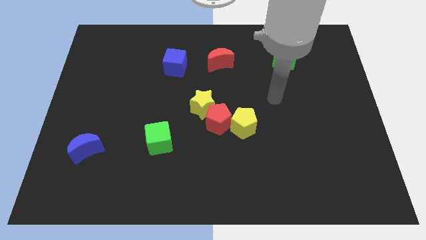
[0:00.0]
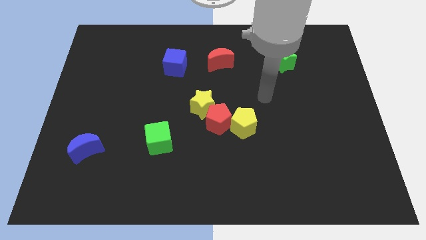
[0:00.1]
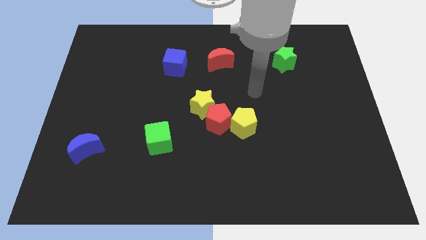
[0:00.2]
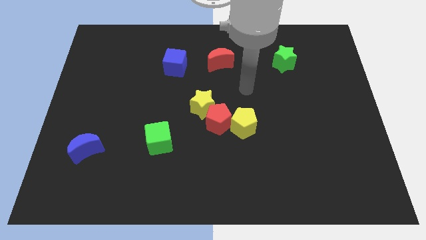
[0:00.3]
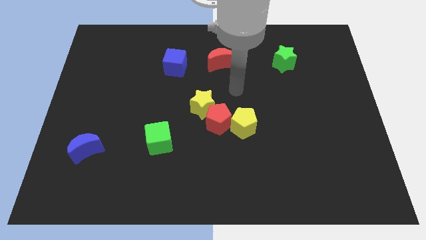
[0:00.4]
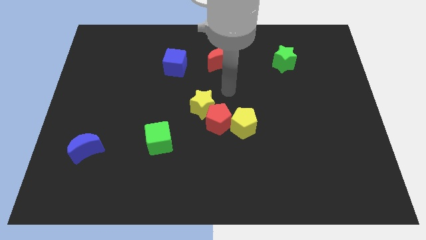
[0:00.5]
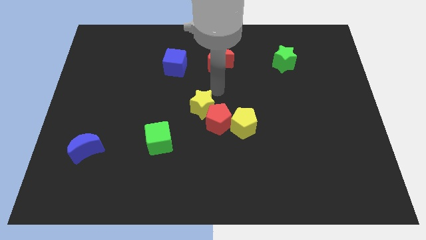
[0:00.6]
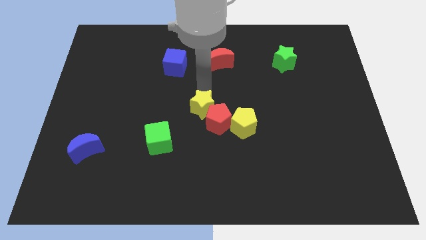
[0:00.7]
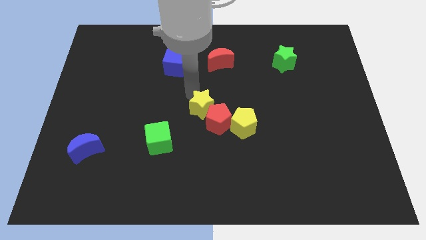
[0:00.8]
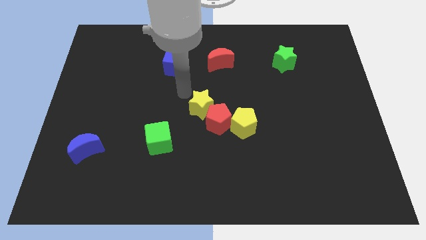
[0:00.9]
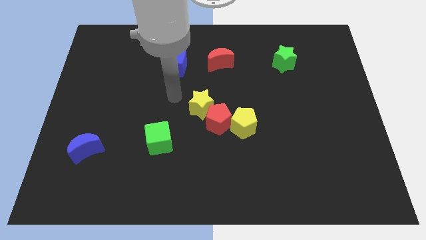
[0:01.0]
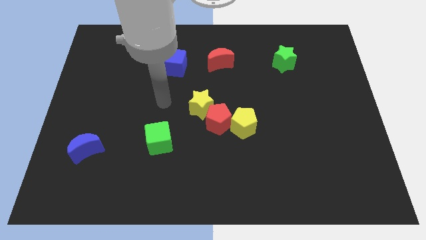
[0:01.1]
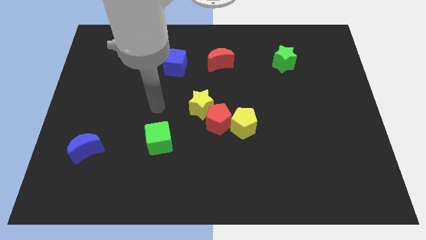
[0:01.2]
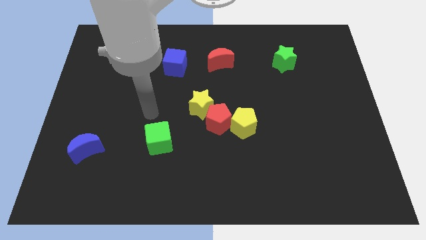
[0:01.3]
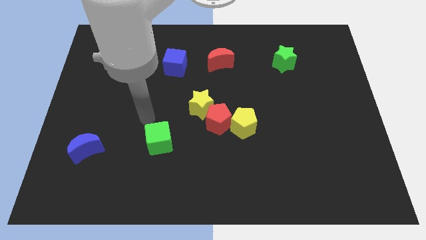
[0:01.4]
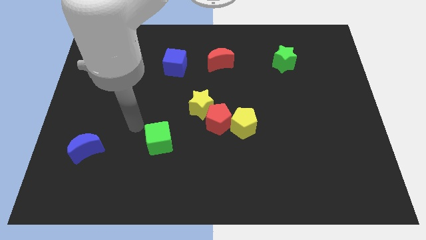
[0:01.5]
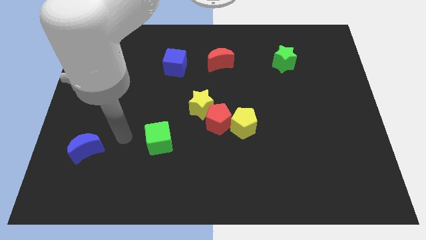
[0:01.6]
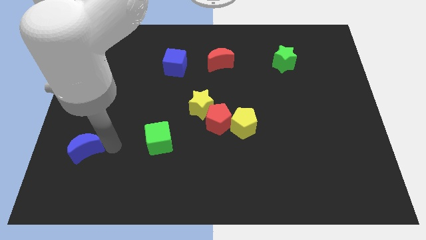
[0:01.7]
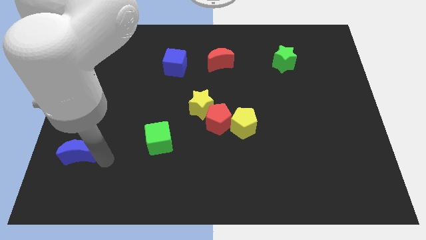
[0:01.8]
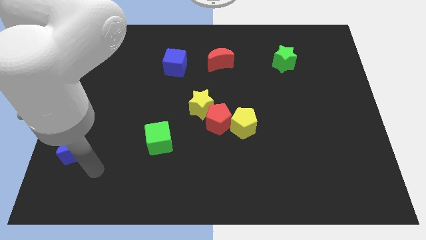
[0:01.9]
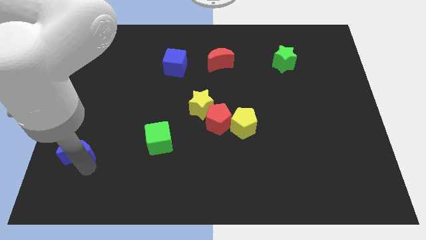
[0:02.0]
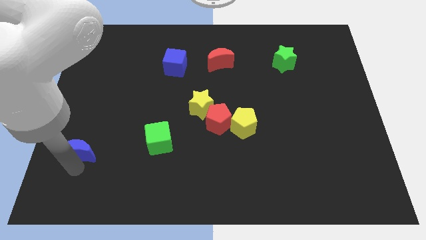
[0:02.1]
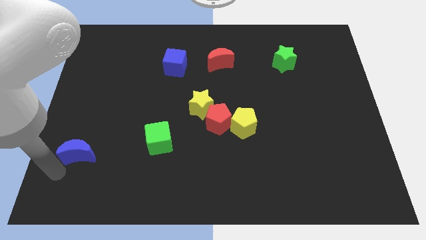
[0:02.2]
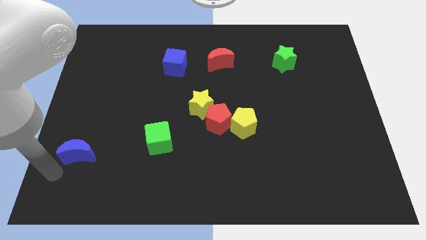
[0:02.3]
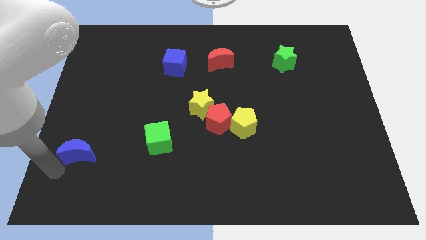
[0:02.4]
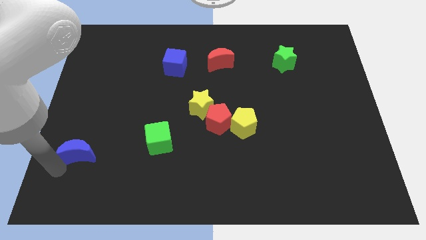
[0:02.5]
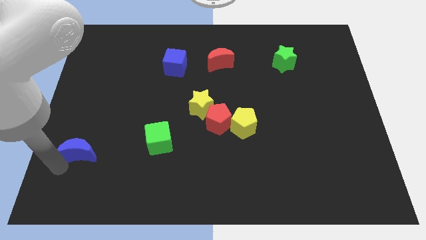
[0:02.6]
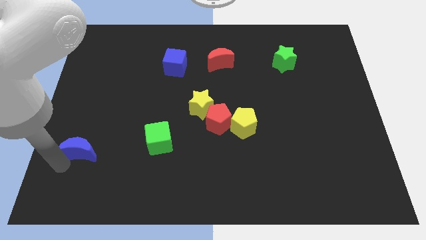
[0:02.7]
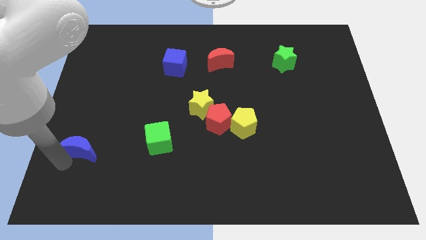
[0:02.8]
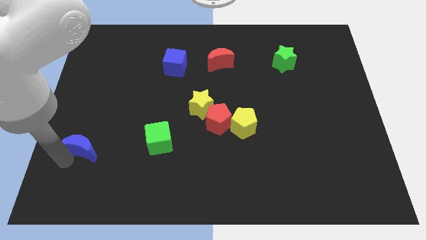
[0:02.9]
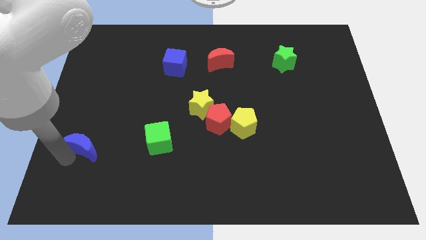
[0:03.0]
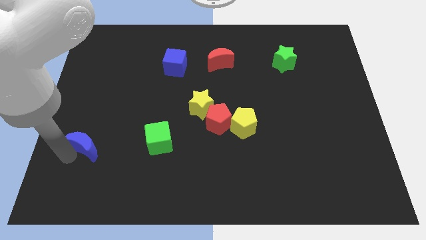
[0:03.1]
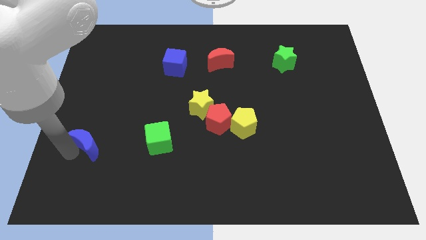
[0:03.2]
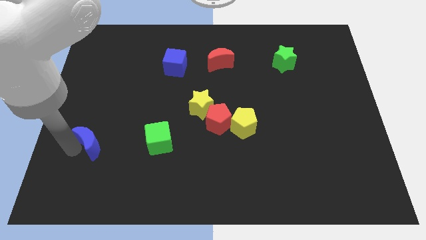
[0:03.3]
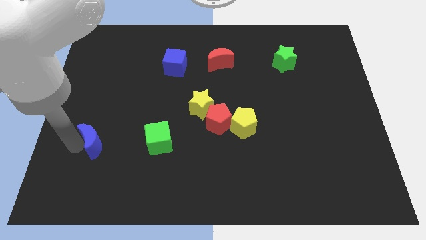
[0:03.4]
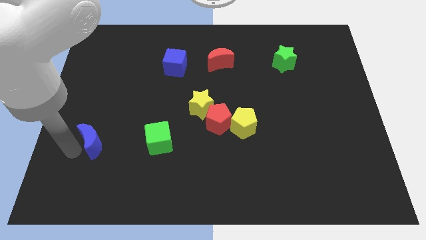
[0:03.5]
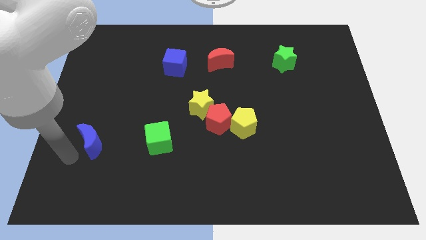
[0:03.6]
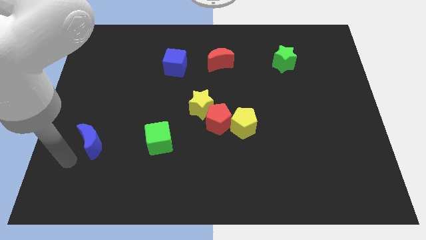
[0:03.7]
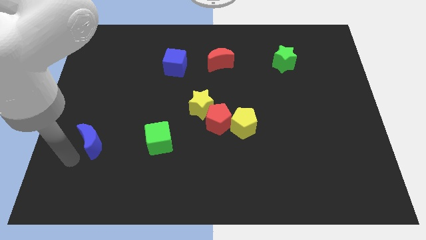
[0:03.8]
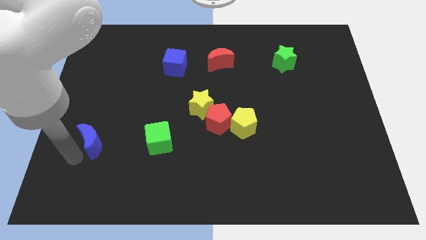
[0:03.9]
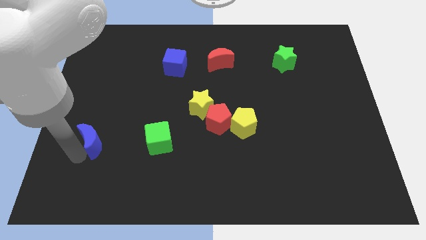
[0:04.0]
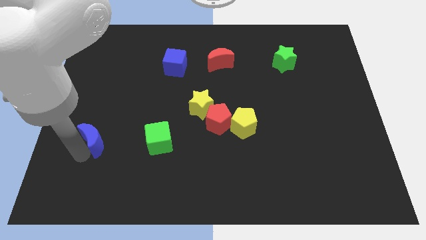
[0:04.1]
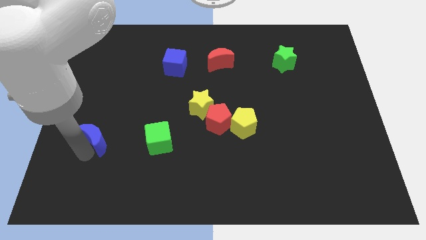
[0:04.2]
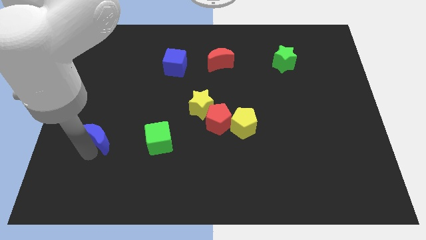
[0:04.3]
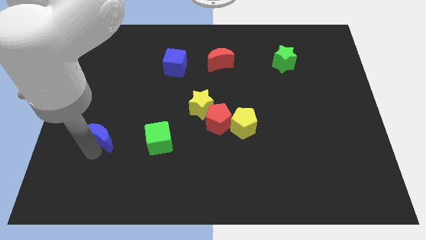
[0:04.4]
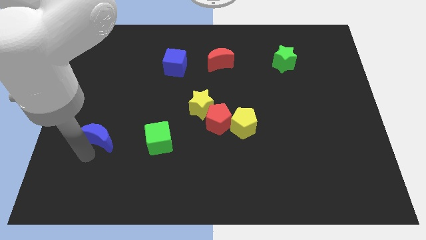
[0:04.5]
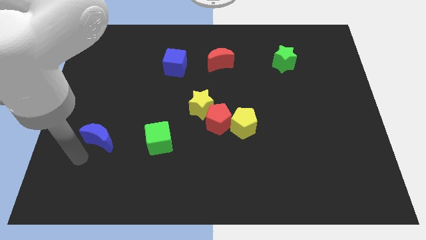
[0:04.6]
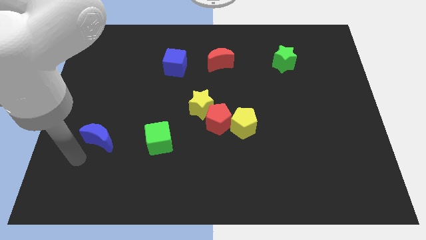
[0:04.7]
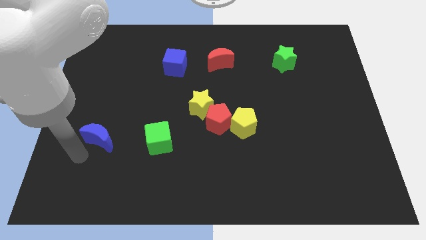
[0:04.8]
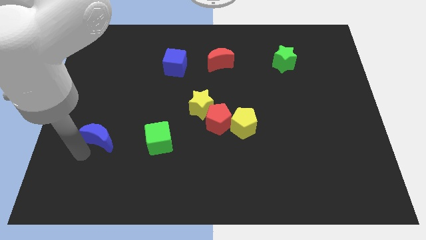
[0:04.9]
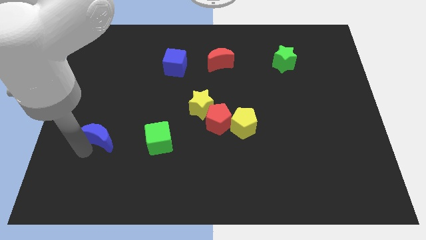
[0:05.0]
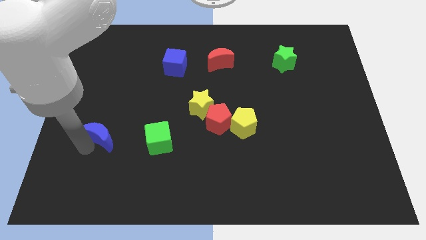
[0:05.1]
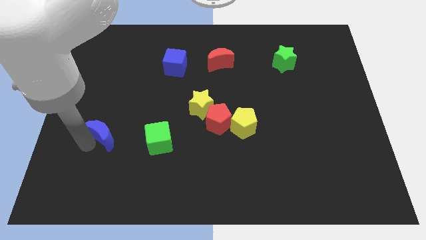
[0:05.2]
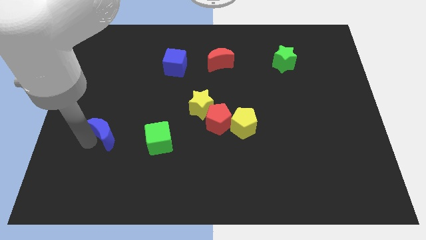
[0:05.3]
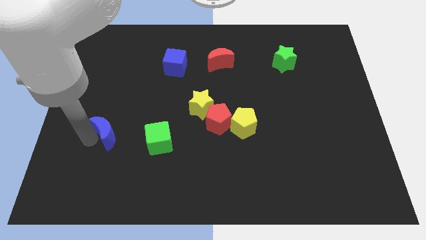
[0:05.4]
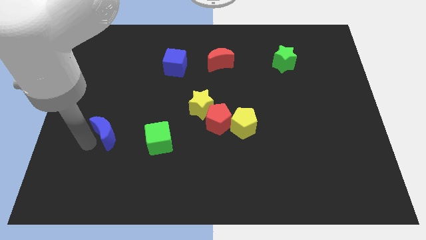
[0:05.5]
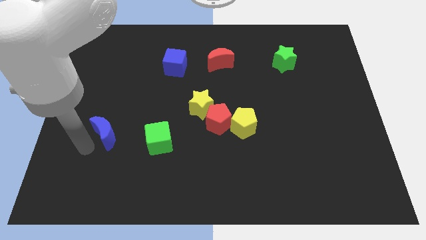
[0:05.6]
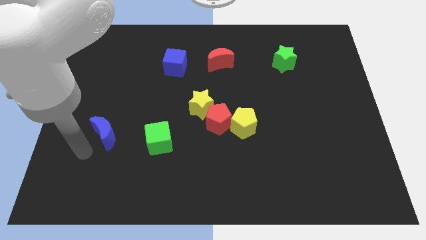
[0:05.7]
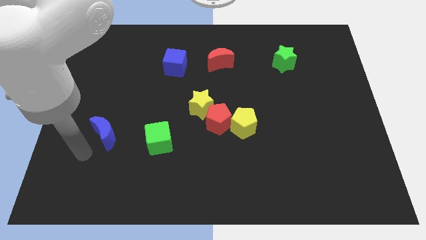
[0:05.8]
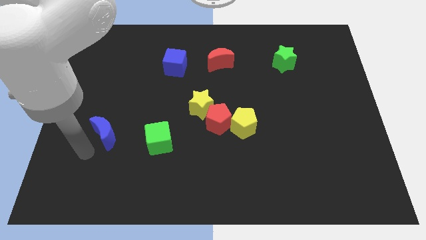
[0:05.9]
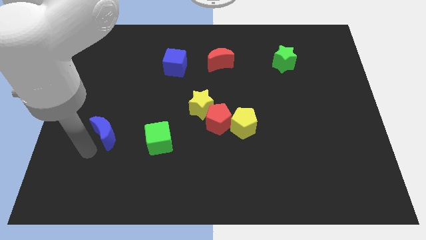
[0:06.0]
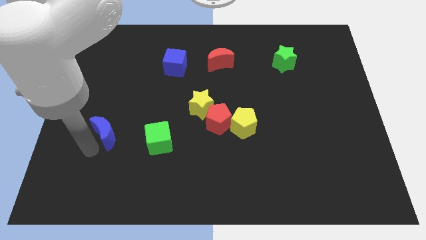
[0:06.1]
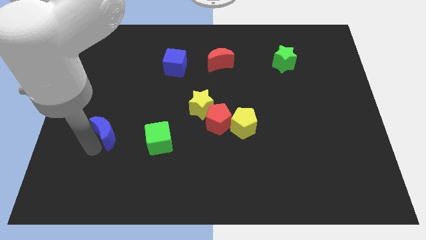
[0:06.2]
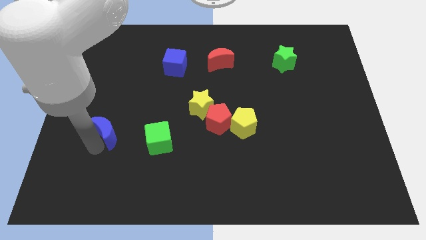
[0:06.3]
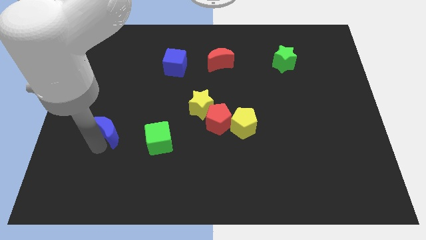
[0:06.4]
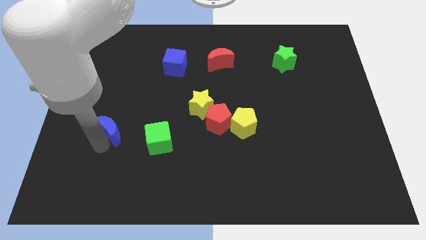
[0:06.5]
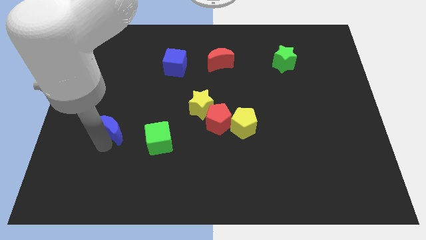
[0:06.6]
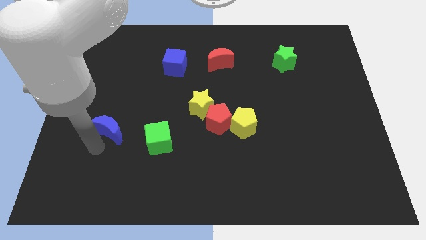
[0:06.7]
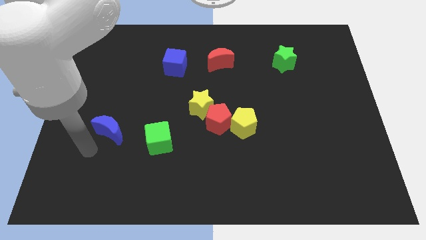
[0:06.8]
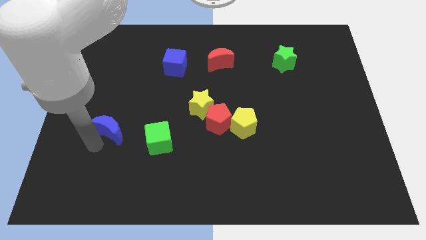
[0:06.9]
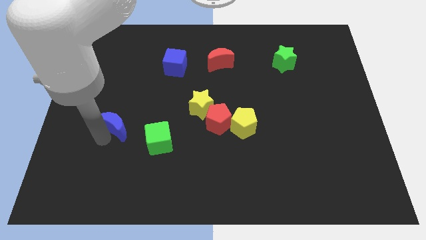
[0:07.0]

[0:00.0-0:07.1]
push the blue moon up and then to the right a bit

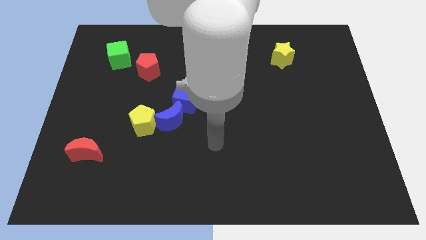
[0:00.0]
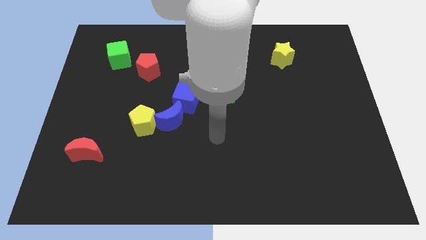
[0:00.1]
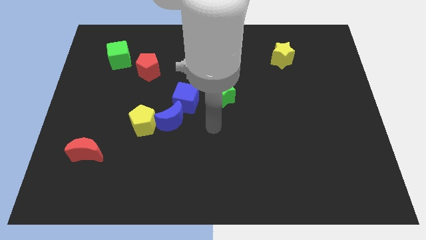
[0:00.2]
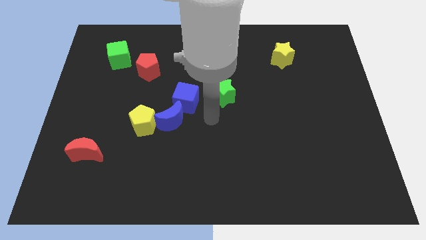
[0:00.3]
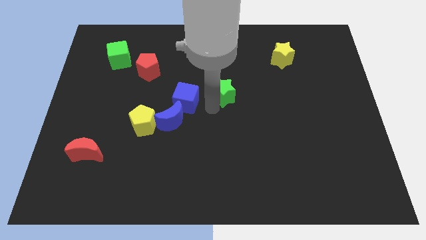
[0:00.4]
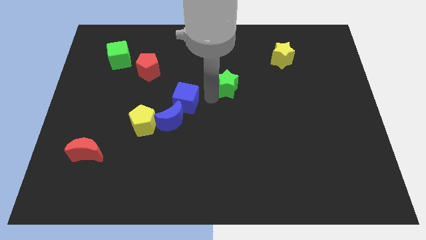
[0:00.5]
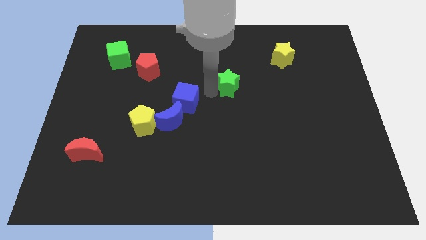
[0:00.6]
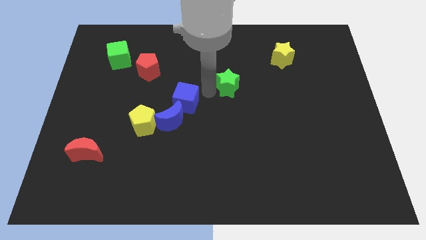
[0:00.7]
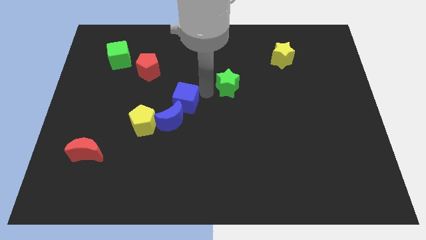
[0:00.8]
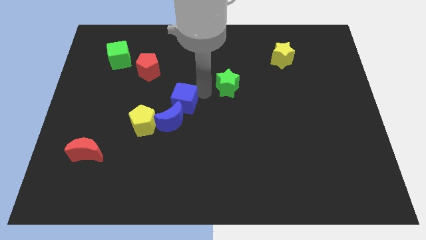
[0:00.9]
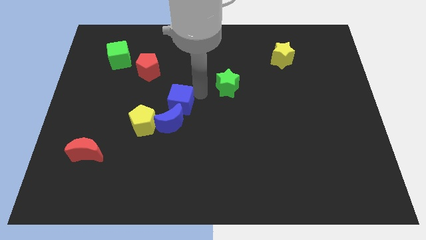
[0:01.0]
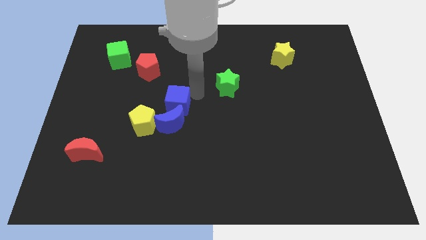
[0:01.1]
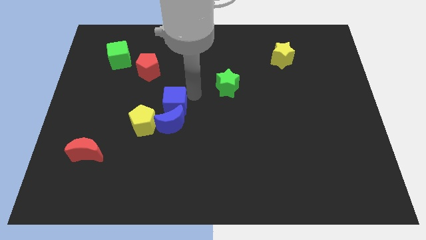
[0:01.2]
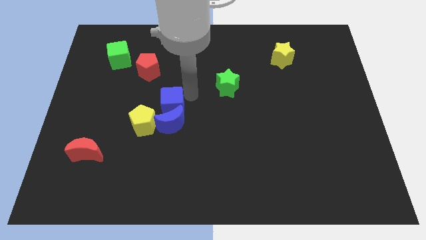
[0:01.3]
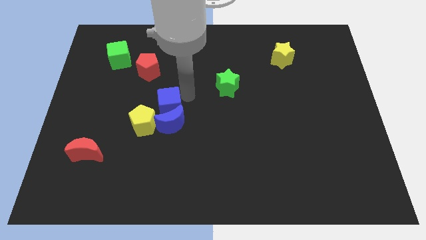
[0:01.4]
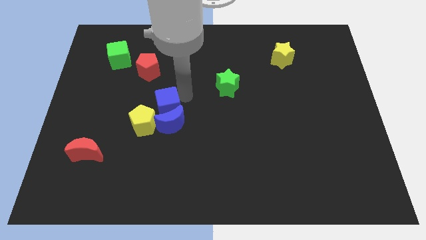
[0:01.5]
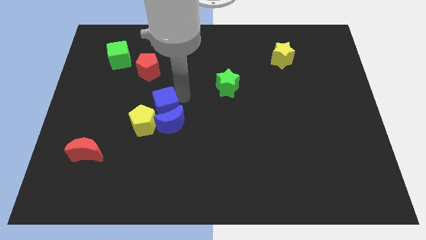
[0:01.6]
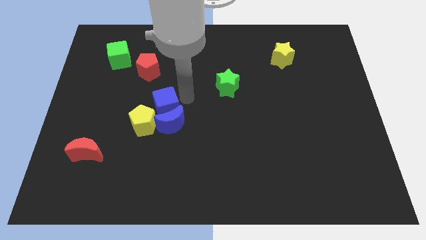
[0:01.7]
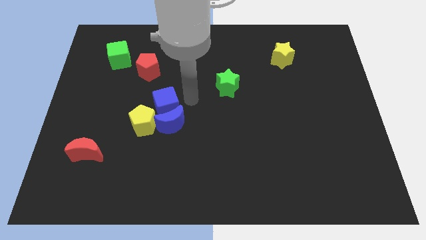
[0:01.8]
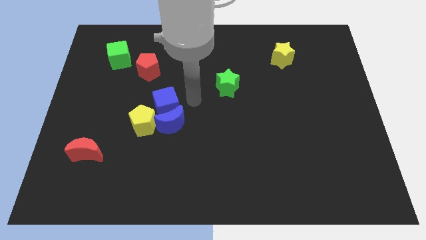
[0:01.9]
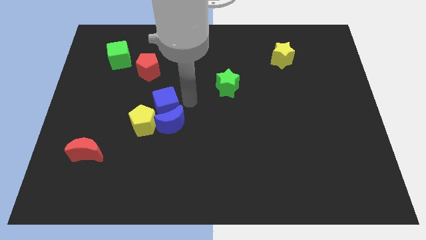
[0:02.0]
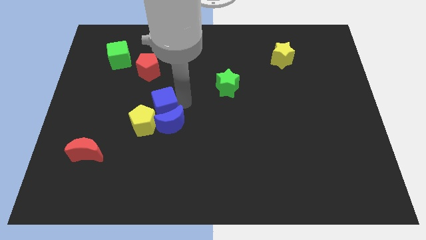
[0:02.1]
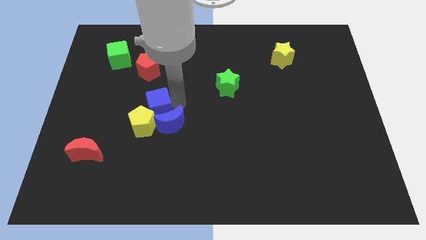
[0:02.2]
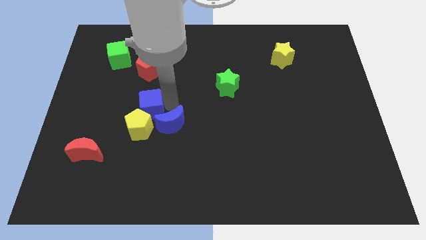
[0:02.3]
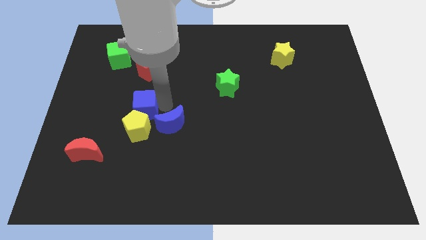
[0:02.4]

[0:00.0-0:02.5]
move the blue cube downwards and left diagonally a little bit
